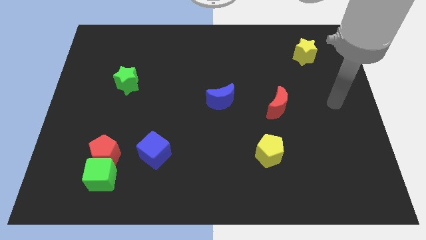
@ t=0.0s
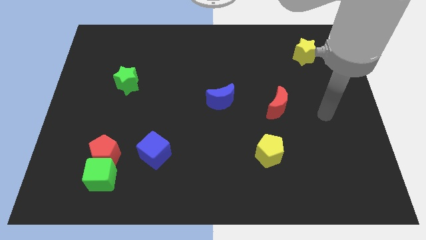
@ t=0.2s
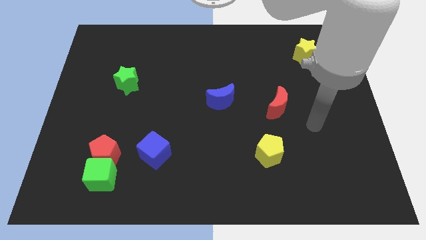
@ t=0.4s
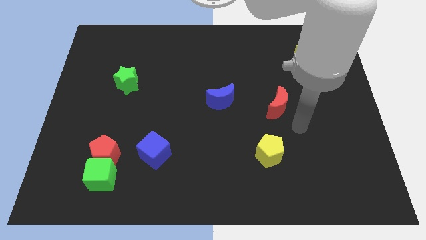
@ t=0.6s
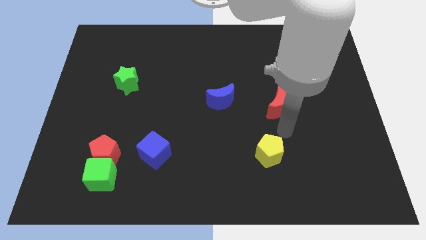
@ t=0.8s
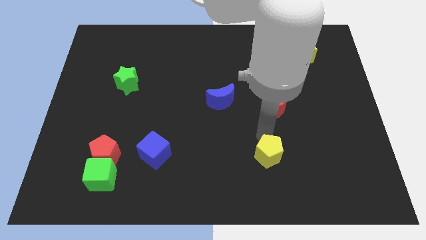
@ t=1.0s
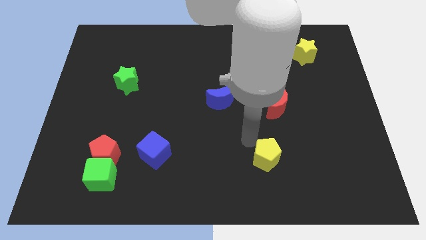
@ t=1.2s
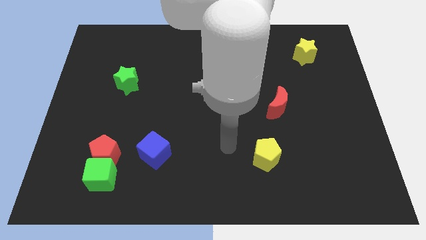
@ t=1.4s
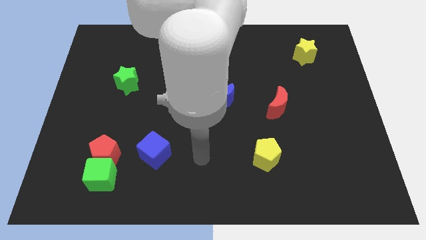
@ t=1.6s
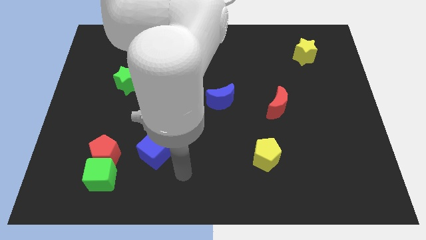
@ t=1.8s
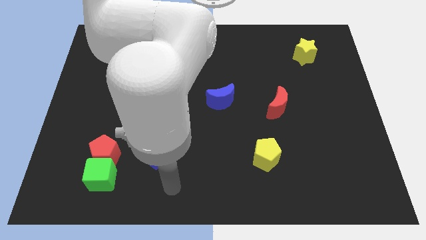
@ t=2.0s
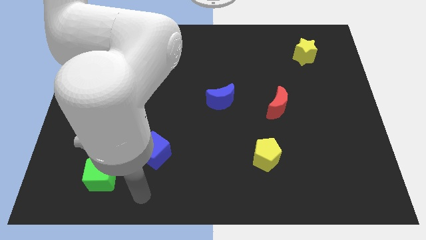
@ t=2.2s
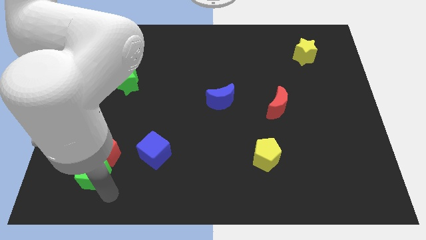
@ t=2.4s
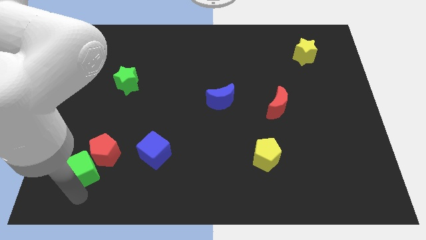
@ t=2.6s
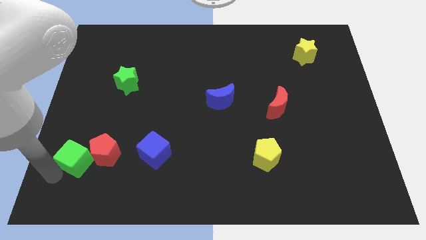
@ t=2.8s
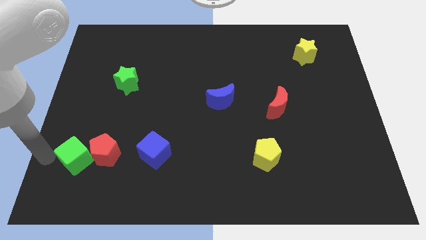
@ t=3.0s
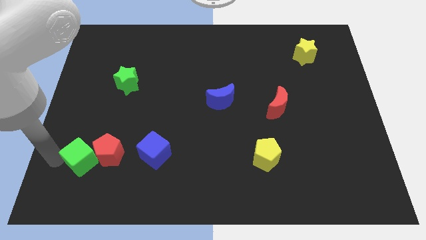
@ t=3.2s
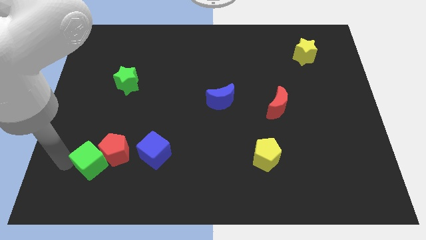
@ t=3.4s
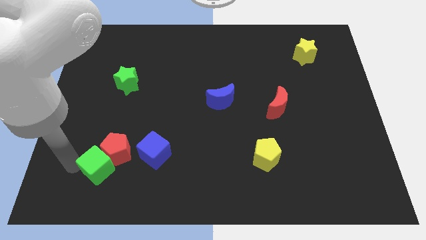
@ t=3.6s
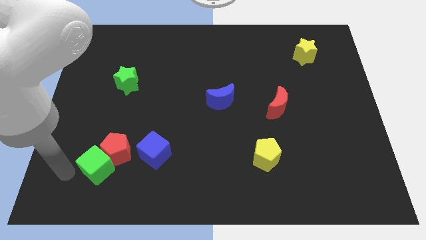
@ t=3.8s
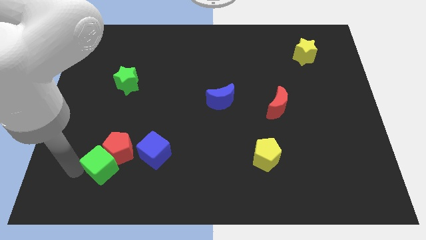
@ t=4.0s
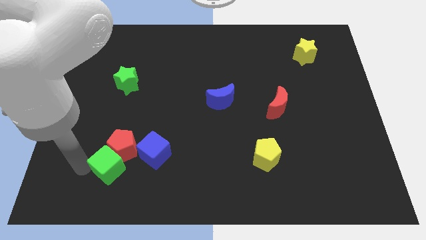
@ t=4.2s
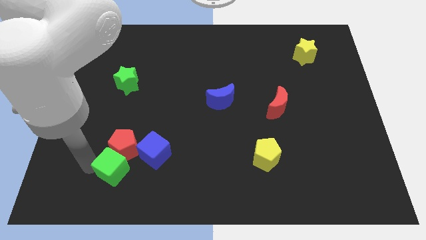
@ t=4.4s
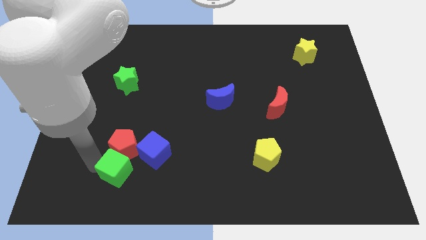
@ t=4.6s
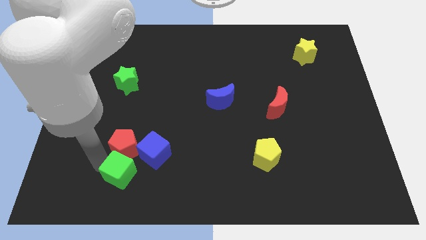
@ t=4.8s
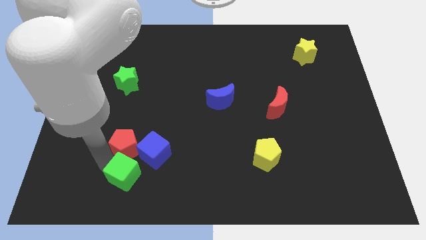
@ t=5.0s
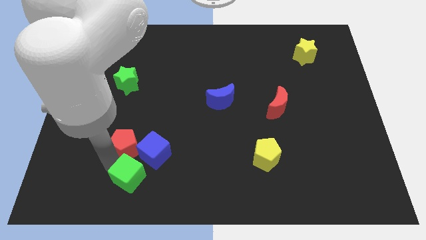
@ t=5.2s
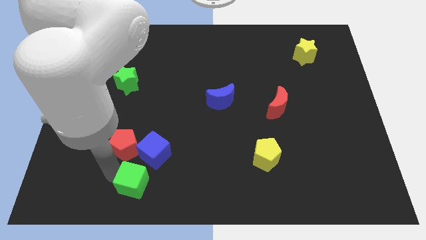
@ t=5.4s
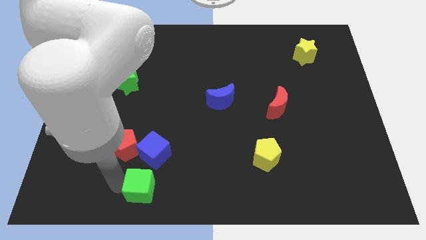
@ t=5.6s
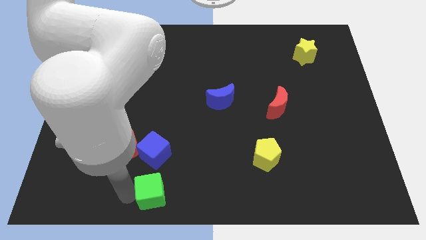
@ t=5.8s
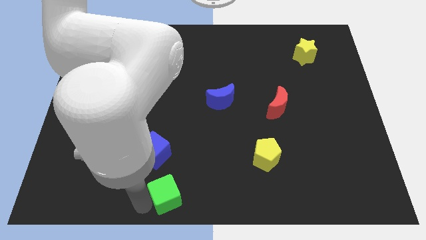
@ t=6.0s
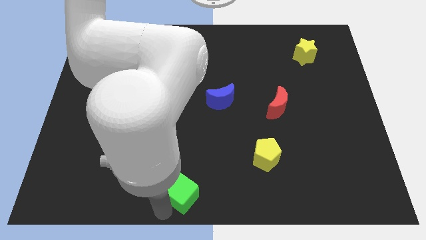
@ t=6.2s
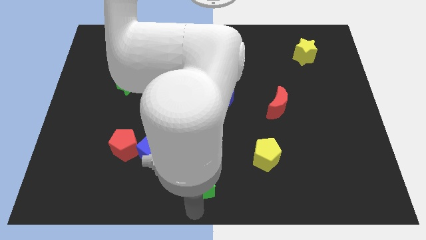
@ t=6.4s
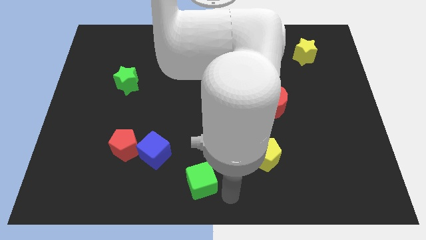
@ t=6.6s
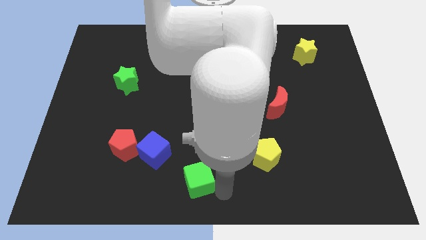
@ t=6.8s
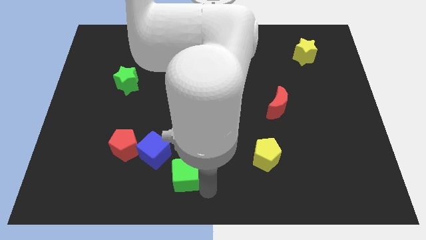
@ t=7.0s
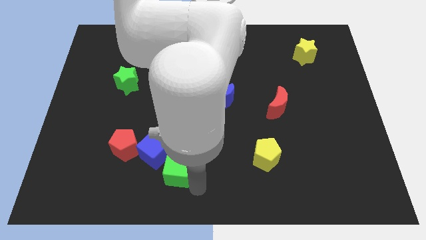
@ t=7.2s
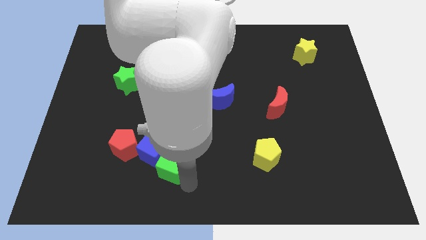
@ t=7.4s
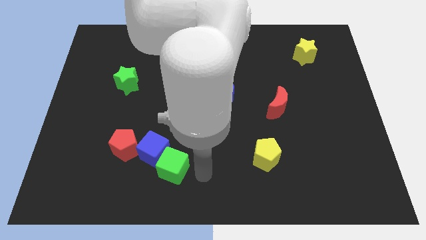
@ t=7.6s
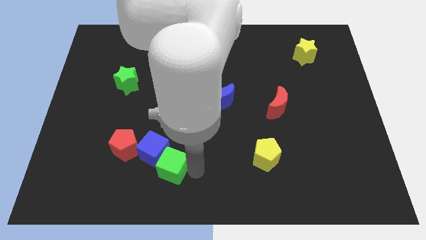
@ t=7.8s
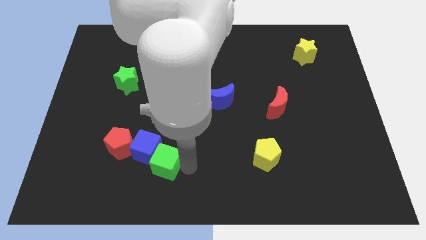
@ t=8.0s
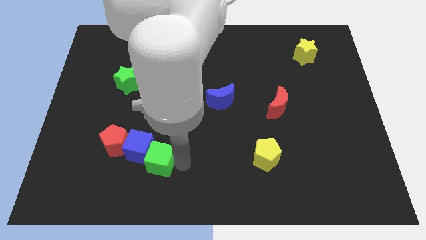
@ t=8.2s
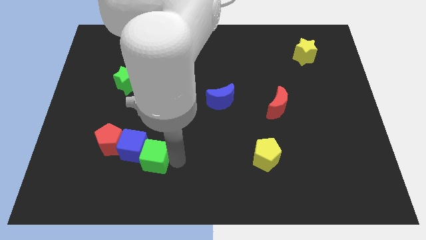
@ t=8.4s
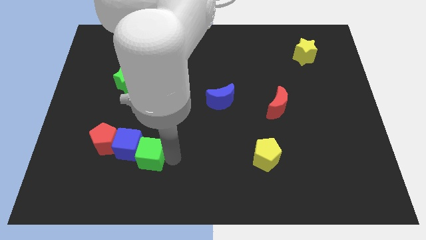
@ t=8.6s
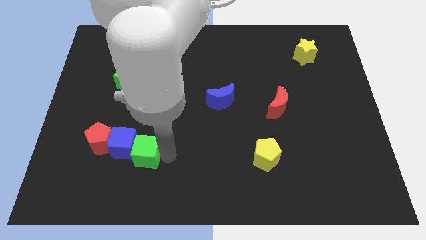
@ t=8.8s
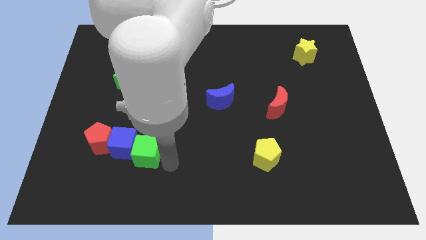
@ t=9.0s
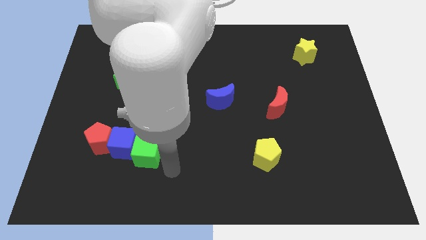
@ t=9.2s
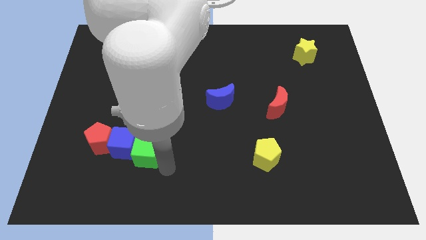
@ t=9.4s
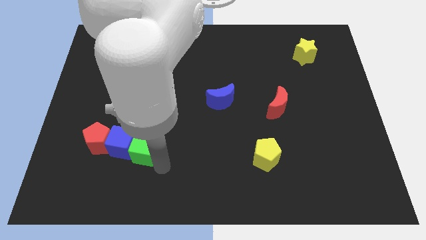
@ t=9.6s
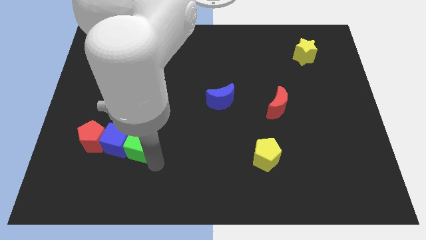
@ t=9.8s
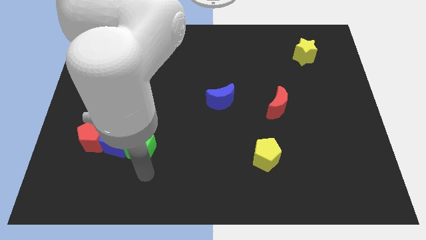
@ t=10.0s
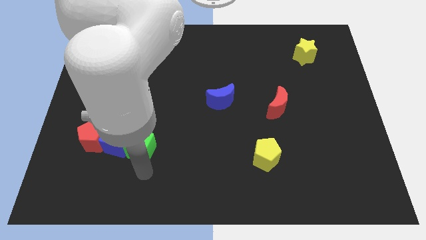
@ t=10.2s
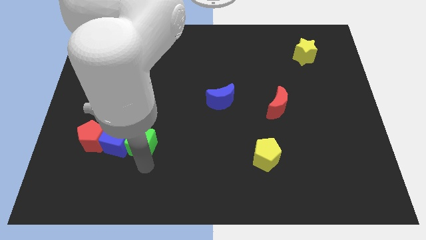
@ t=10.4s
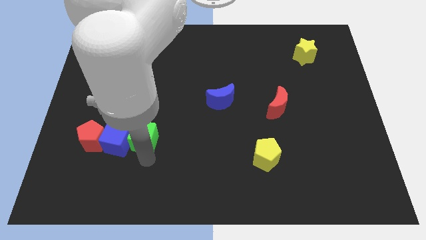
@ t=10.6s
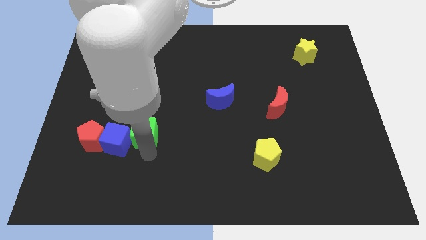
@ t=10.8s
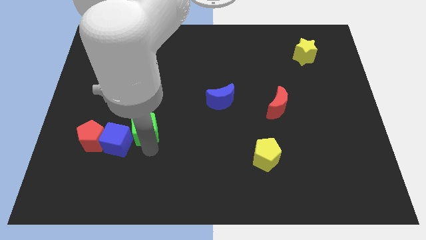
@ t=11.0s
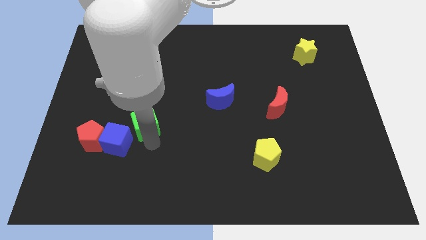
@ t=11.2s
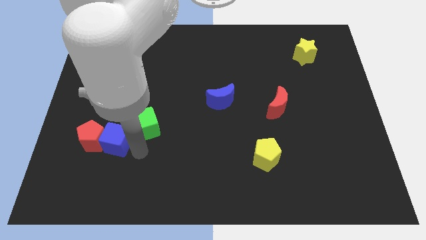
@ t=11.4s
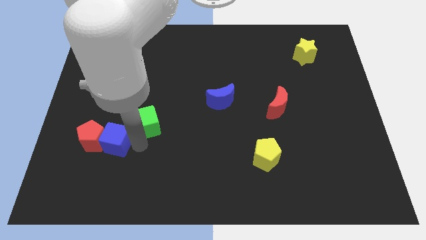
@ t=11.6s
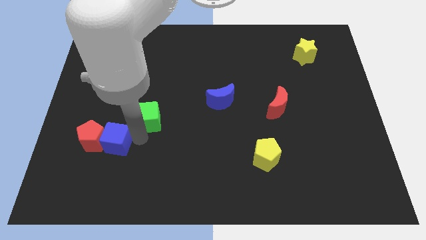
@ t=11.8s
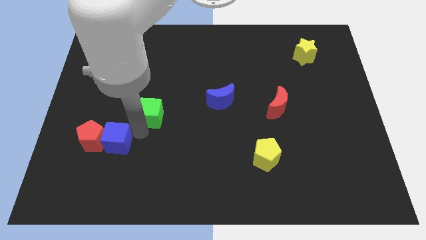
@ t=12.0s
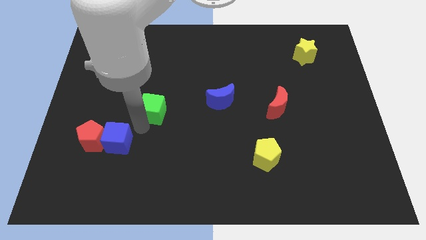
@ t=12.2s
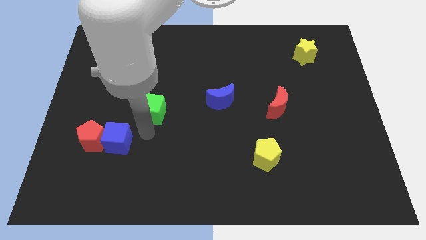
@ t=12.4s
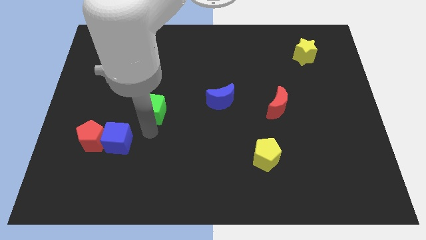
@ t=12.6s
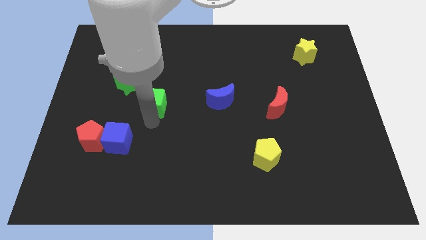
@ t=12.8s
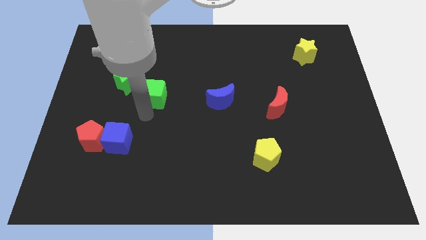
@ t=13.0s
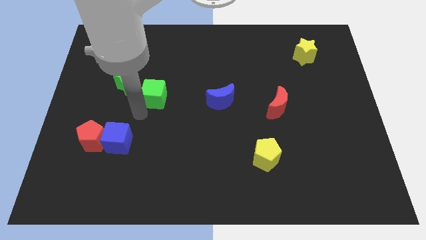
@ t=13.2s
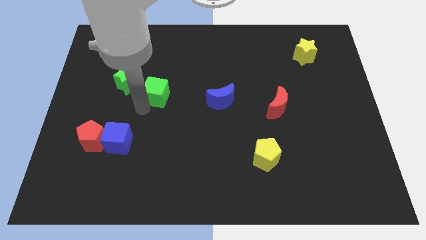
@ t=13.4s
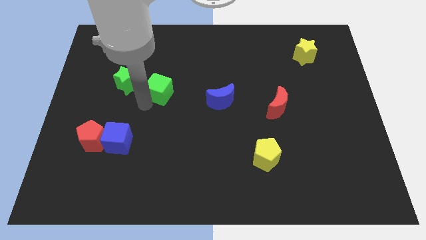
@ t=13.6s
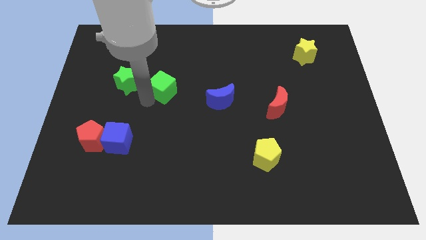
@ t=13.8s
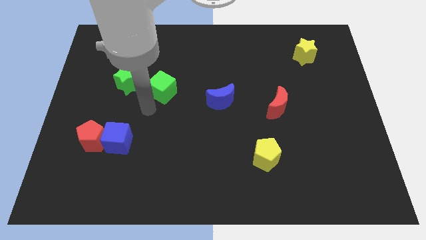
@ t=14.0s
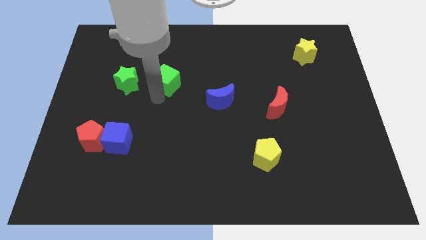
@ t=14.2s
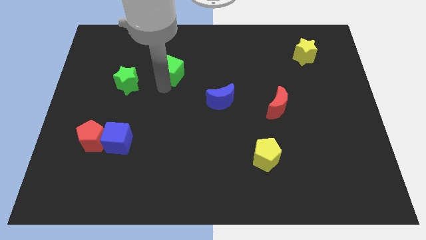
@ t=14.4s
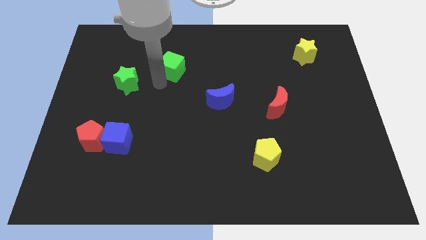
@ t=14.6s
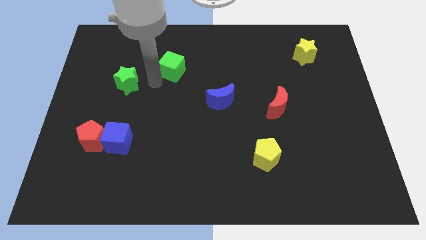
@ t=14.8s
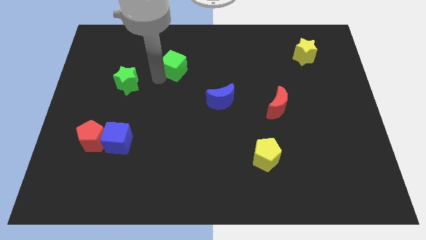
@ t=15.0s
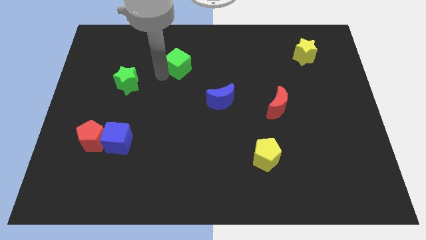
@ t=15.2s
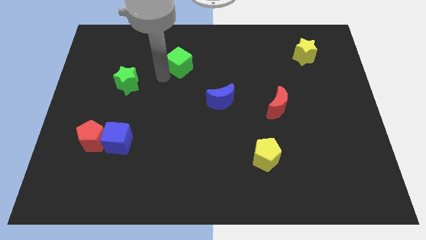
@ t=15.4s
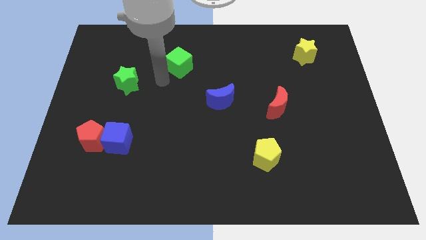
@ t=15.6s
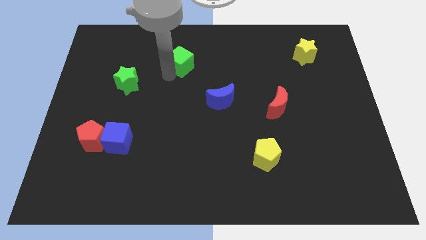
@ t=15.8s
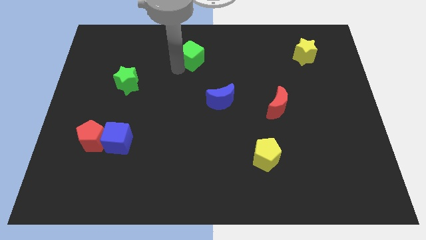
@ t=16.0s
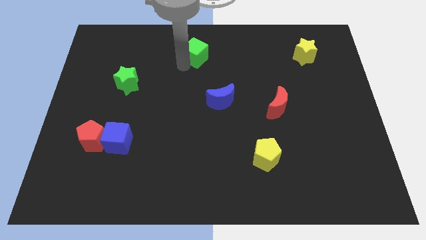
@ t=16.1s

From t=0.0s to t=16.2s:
slide the green cube to the top side
